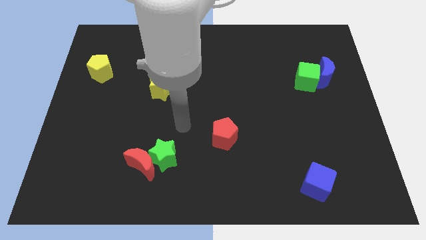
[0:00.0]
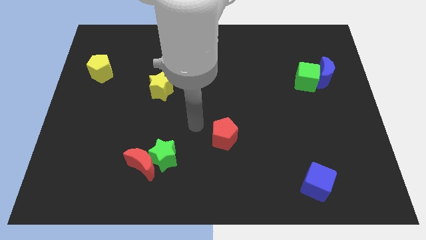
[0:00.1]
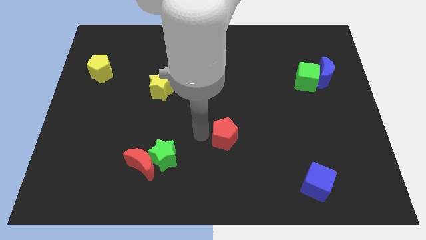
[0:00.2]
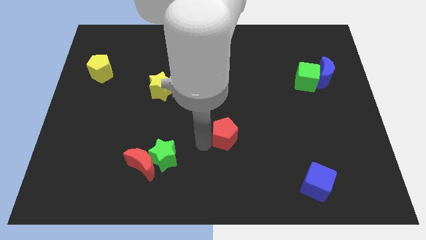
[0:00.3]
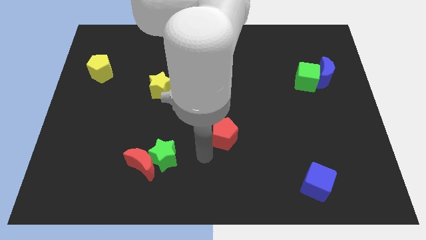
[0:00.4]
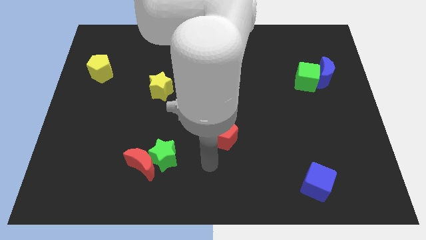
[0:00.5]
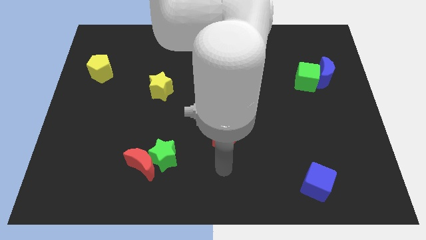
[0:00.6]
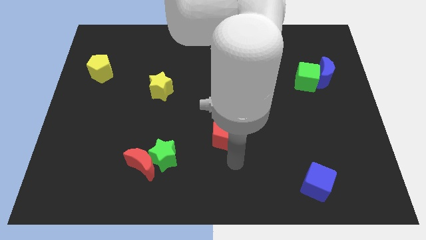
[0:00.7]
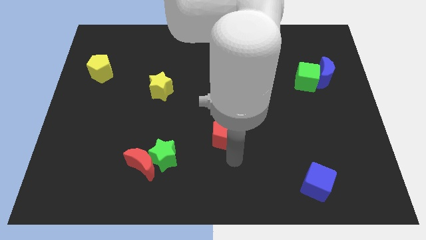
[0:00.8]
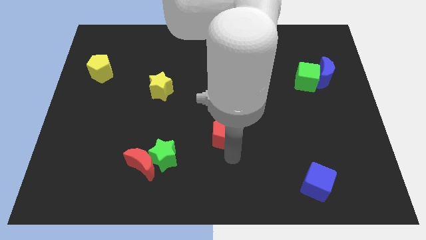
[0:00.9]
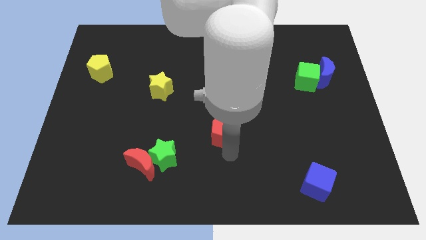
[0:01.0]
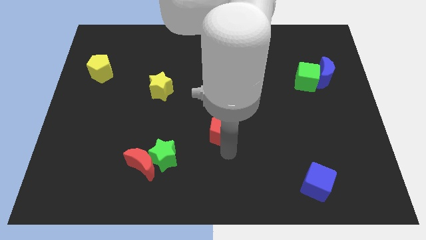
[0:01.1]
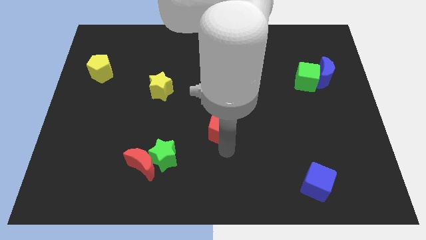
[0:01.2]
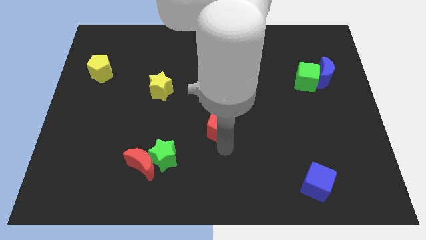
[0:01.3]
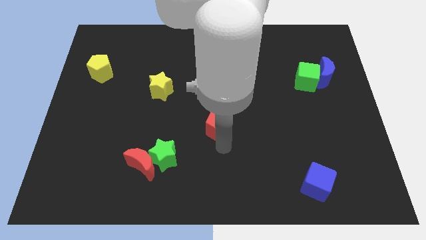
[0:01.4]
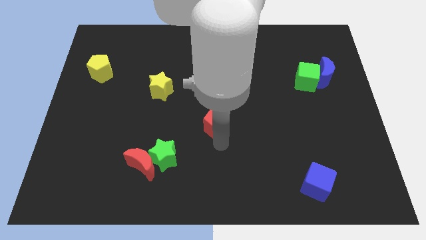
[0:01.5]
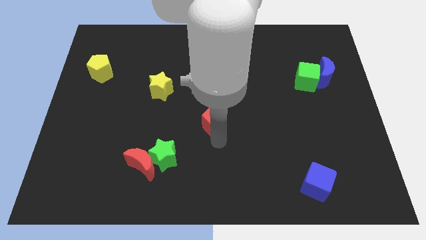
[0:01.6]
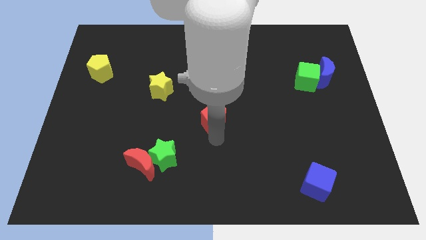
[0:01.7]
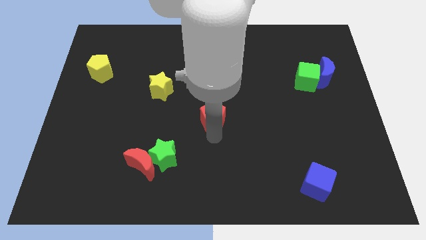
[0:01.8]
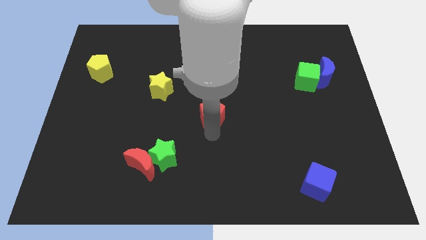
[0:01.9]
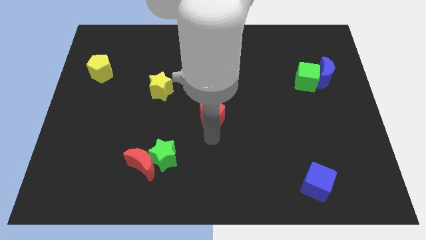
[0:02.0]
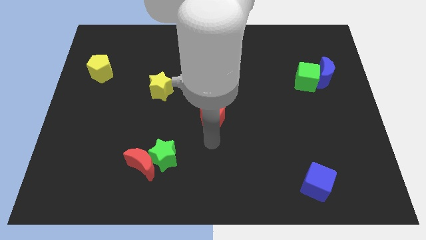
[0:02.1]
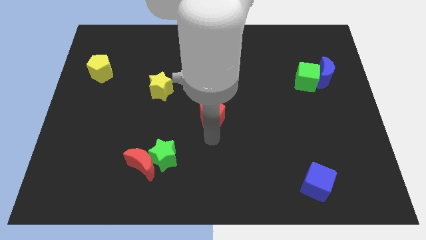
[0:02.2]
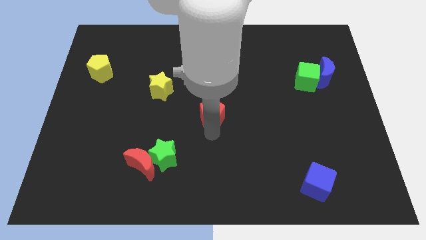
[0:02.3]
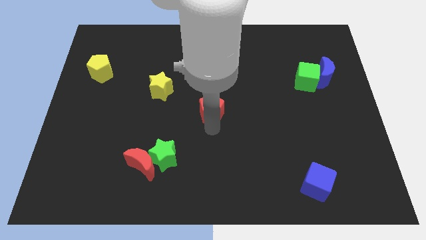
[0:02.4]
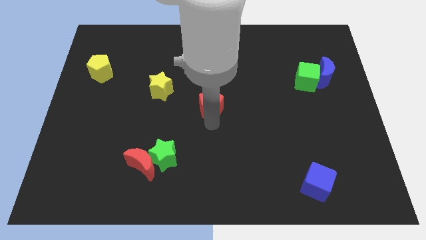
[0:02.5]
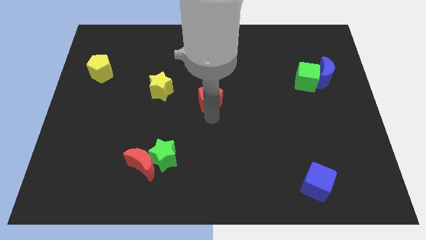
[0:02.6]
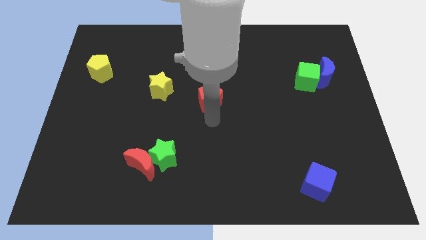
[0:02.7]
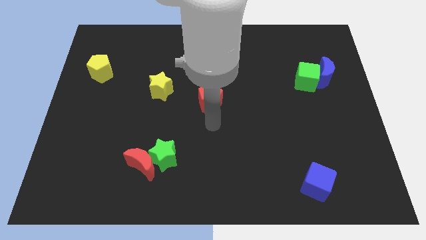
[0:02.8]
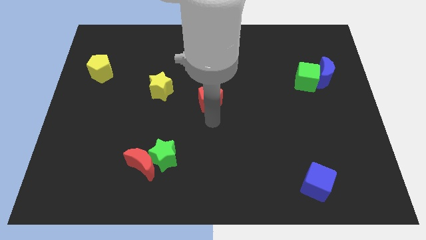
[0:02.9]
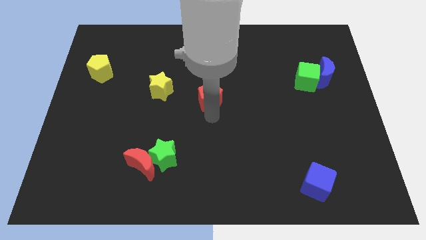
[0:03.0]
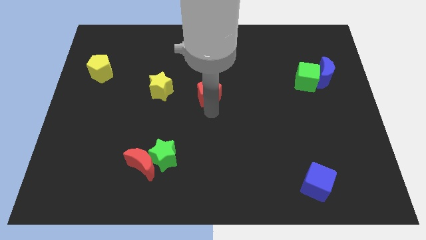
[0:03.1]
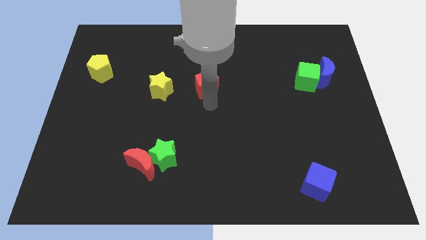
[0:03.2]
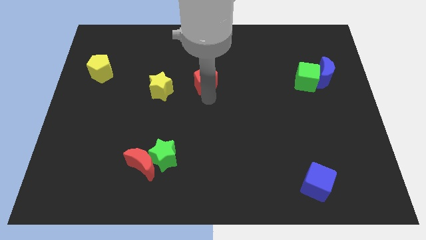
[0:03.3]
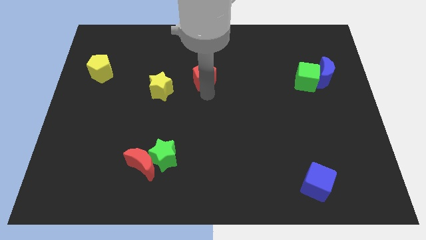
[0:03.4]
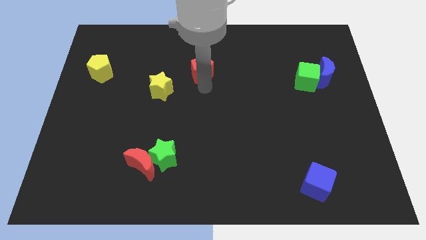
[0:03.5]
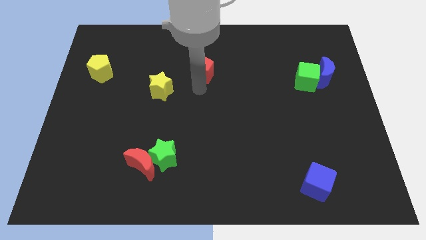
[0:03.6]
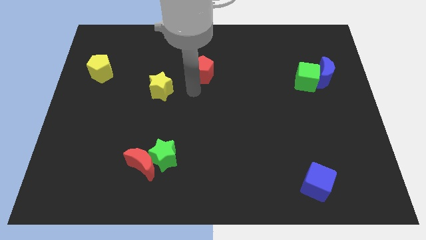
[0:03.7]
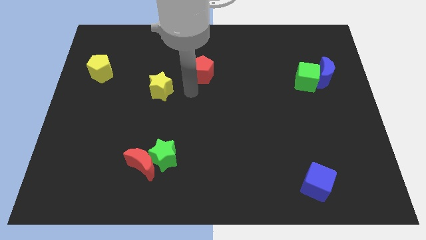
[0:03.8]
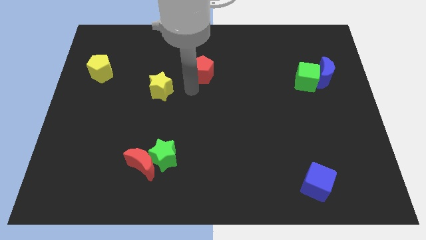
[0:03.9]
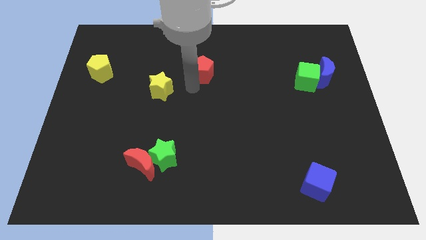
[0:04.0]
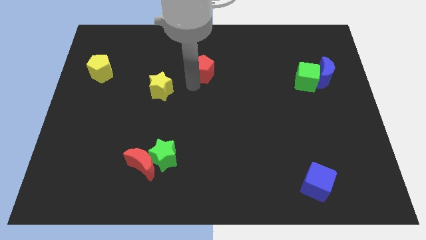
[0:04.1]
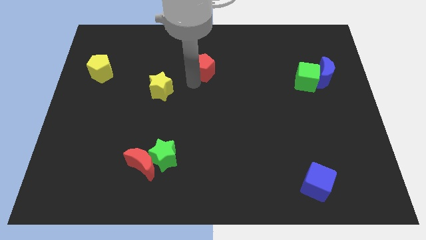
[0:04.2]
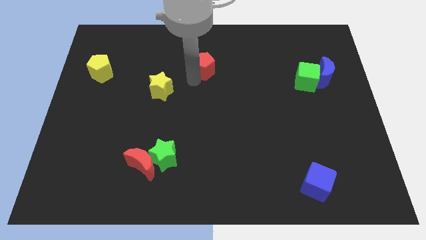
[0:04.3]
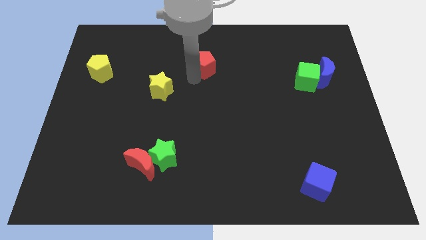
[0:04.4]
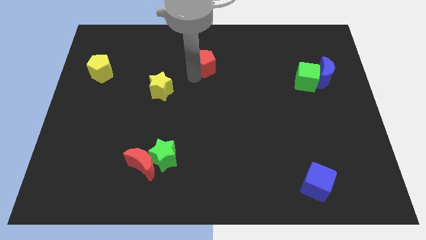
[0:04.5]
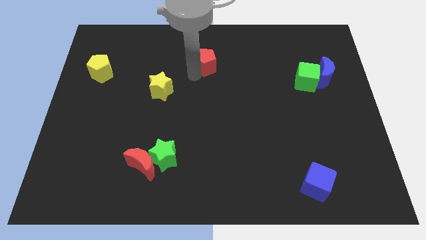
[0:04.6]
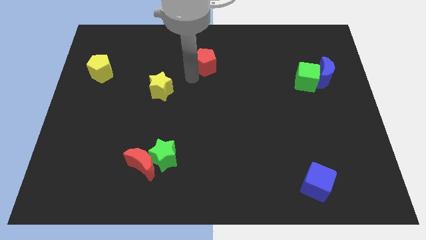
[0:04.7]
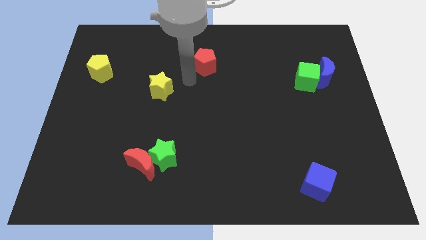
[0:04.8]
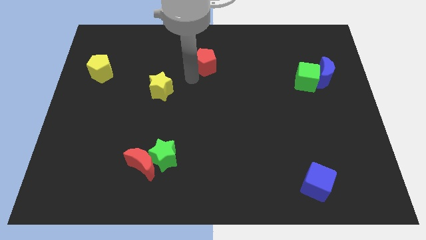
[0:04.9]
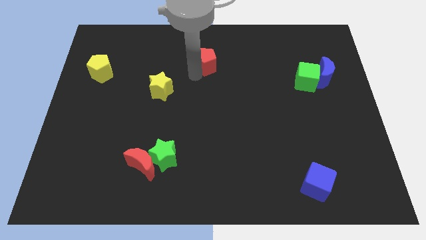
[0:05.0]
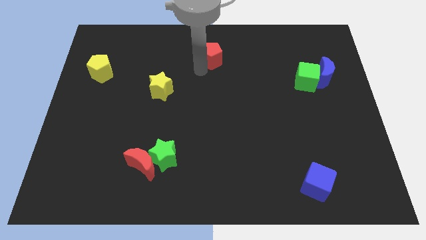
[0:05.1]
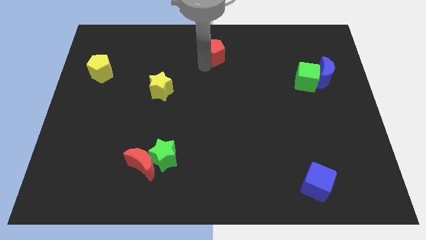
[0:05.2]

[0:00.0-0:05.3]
move the red pentagon to the top side
